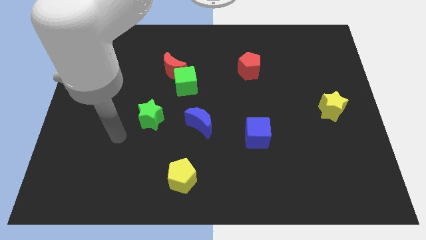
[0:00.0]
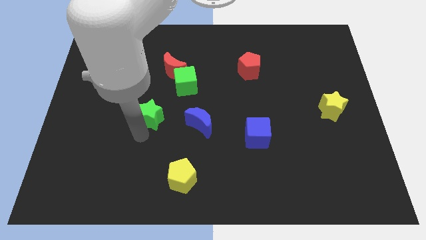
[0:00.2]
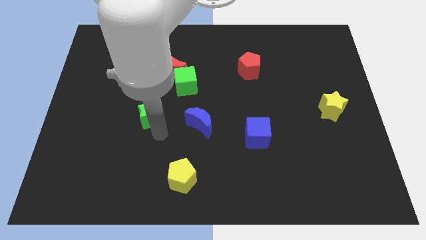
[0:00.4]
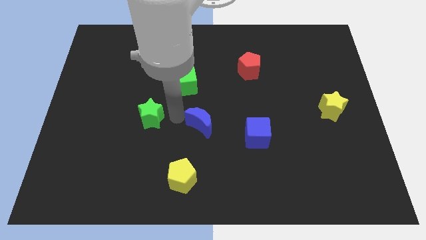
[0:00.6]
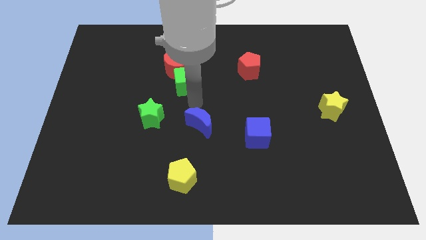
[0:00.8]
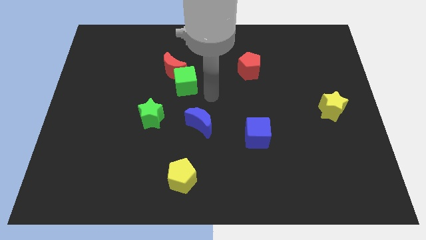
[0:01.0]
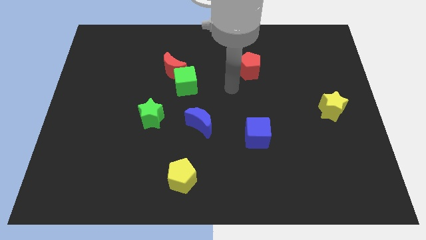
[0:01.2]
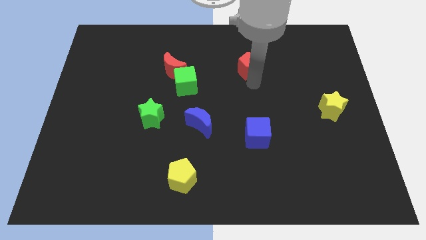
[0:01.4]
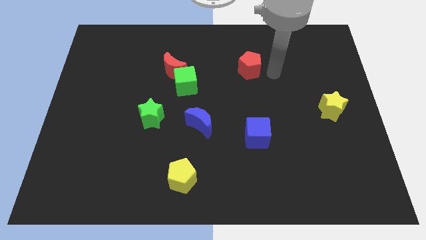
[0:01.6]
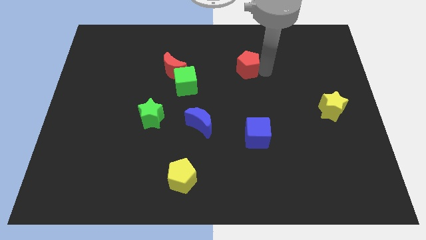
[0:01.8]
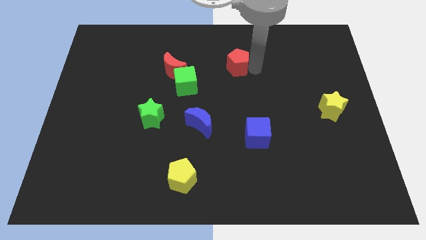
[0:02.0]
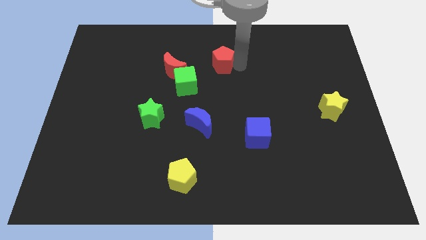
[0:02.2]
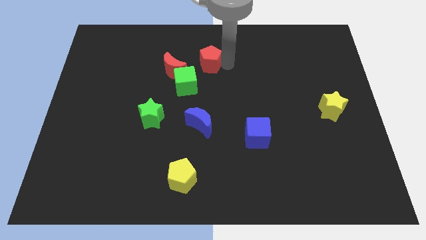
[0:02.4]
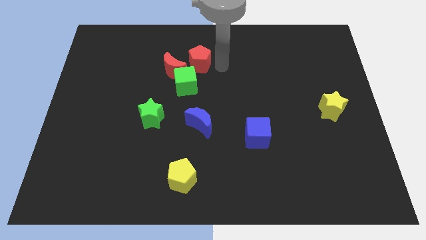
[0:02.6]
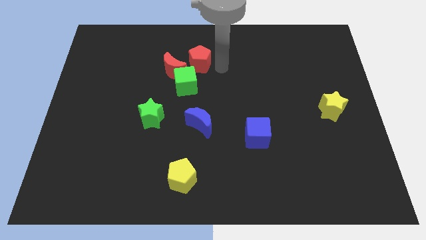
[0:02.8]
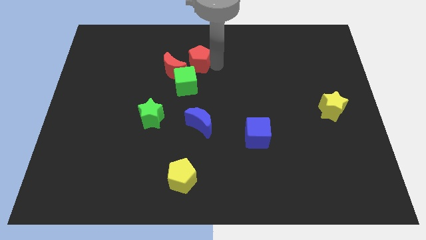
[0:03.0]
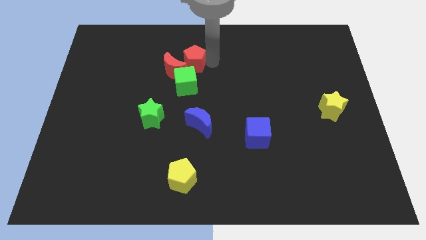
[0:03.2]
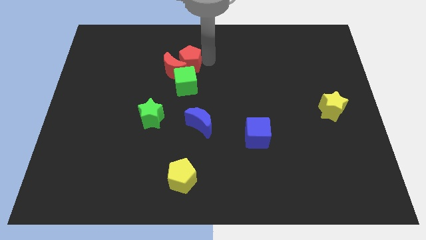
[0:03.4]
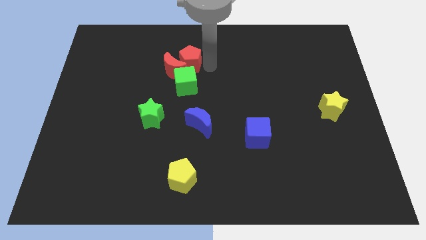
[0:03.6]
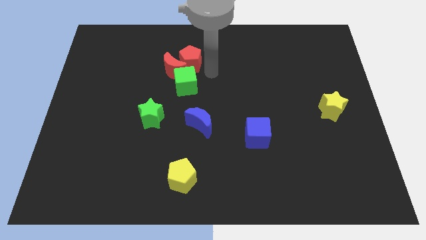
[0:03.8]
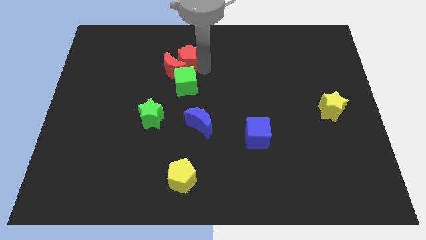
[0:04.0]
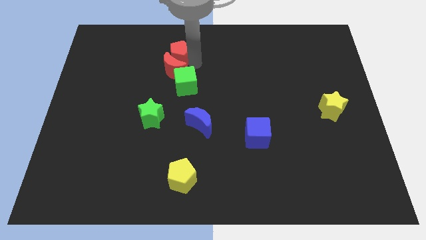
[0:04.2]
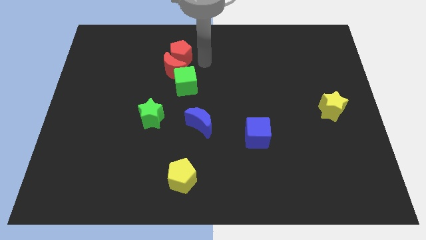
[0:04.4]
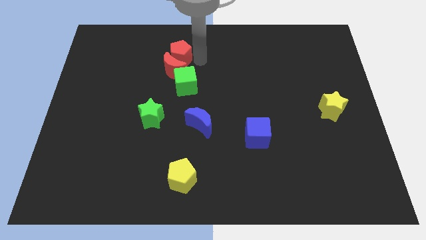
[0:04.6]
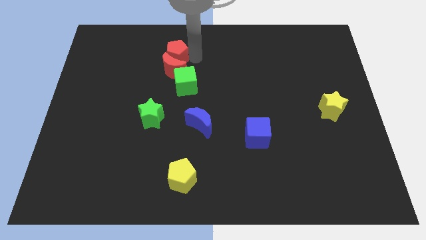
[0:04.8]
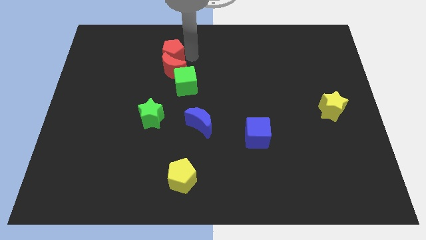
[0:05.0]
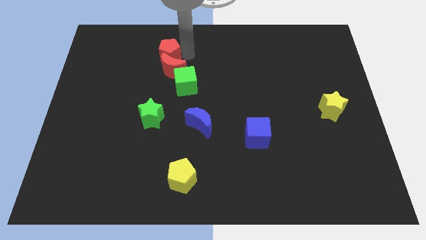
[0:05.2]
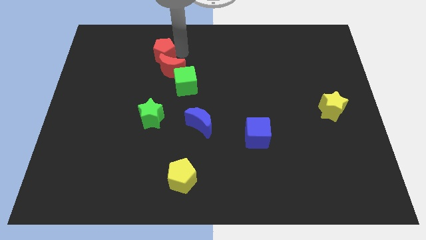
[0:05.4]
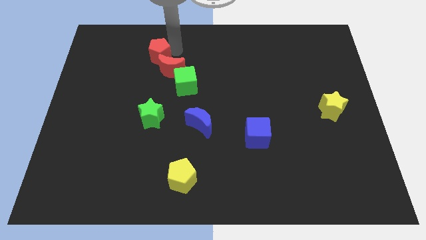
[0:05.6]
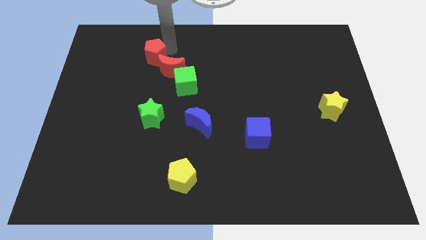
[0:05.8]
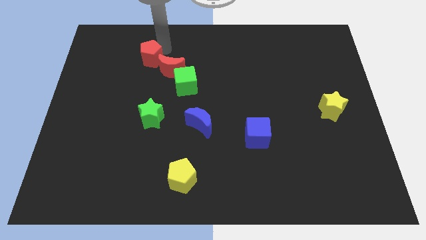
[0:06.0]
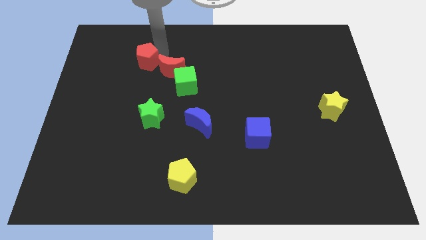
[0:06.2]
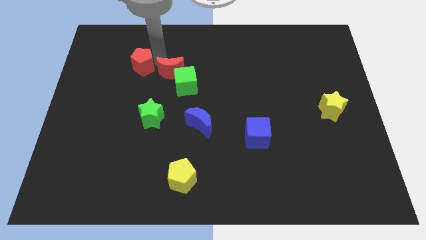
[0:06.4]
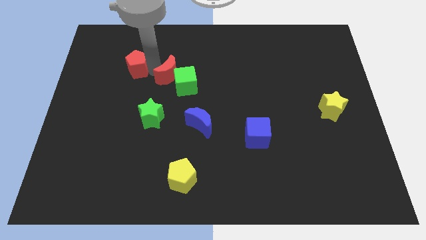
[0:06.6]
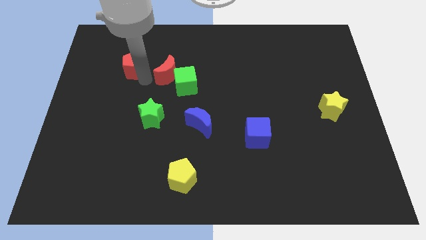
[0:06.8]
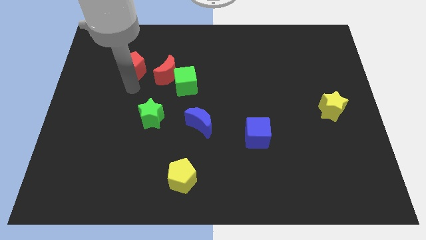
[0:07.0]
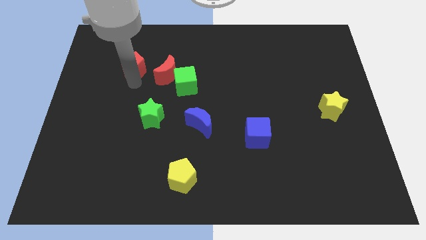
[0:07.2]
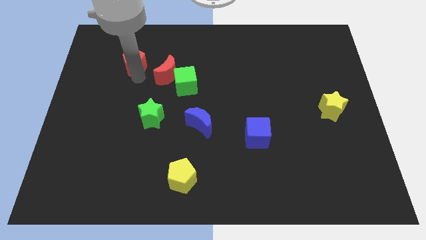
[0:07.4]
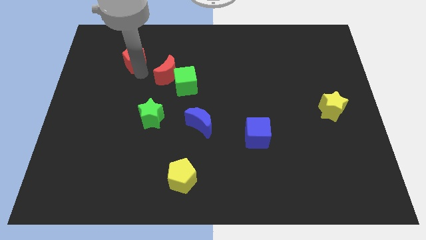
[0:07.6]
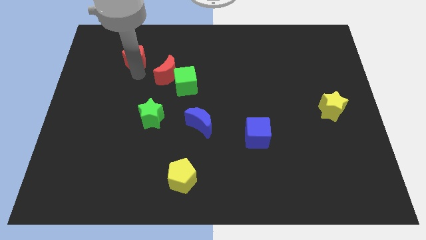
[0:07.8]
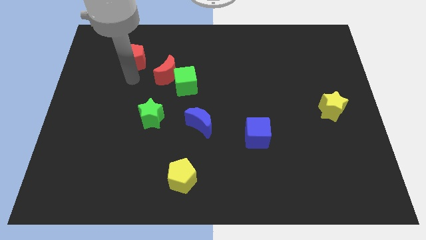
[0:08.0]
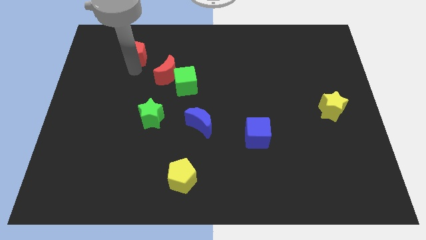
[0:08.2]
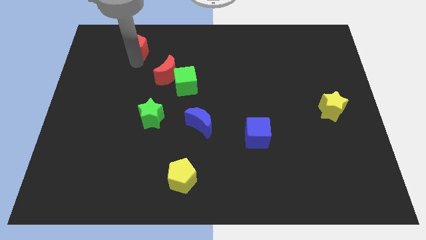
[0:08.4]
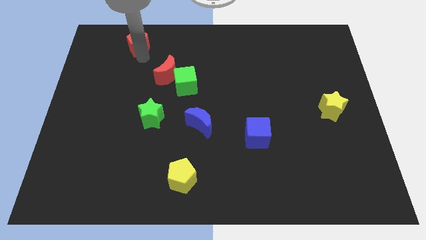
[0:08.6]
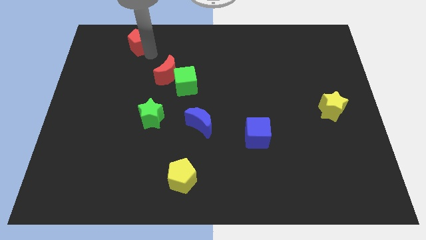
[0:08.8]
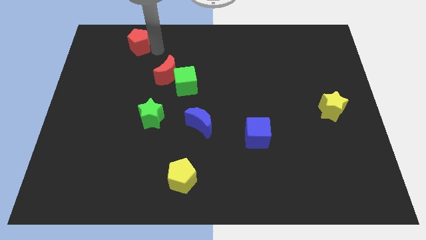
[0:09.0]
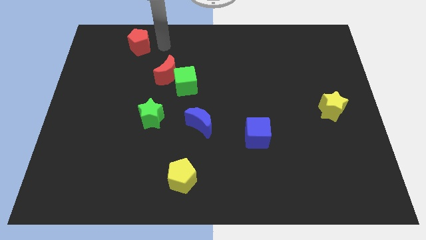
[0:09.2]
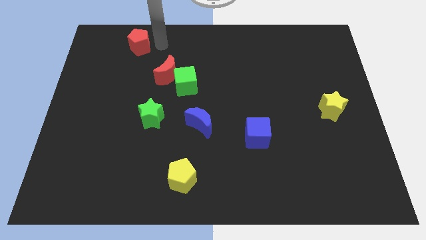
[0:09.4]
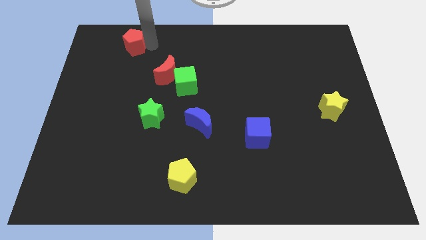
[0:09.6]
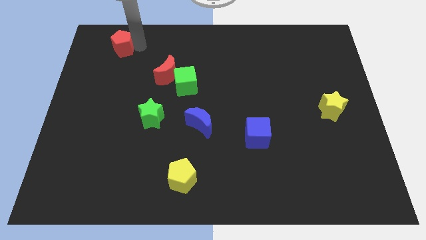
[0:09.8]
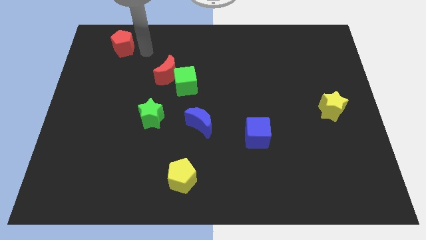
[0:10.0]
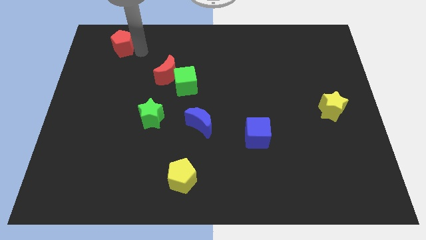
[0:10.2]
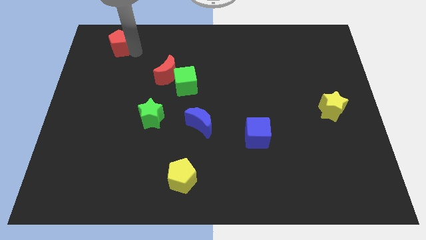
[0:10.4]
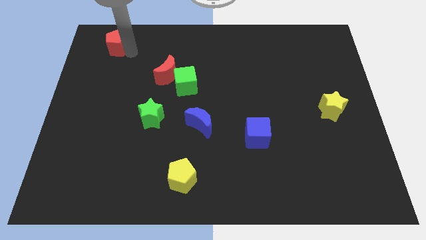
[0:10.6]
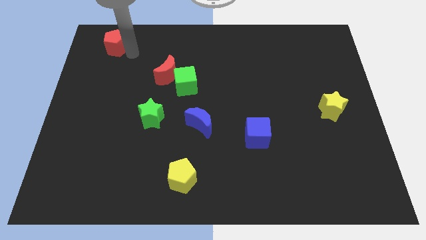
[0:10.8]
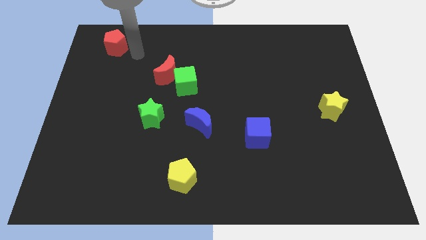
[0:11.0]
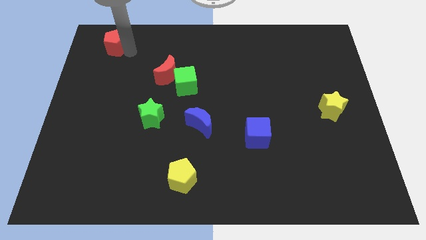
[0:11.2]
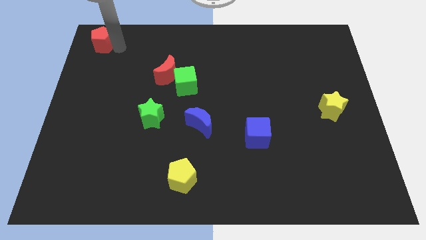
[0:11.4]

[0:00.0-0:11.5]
slide the red pentagon to the upper left corner

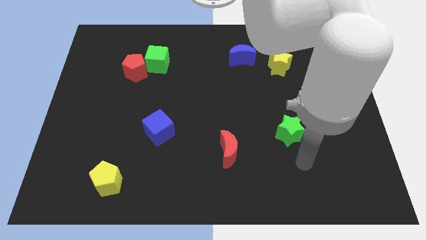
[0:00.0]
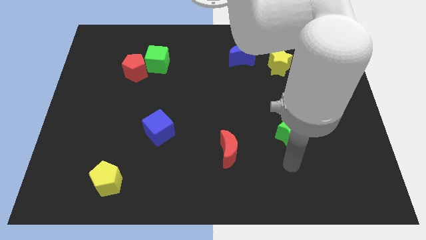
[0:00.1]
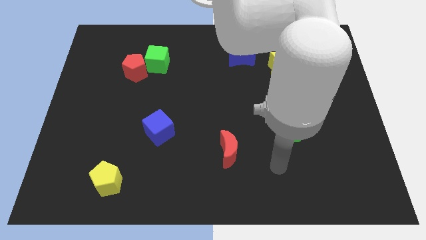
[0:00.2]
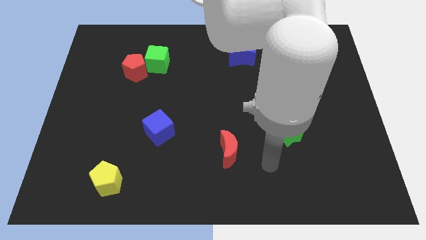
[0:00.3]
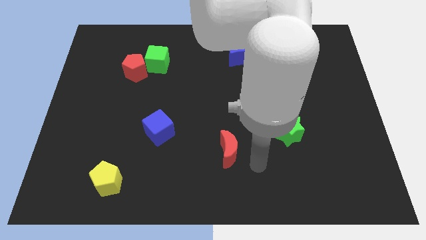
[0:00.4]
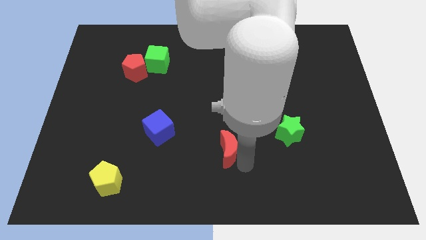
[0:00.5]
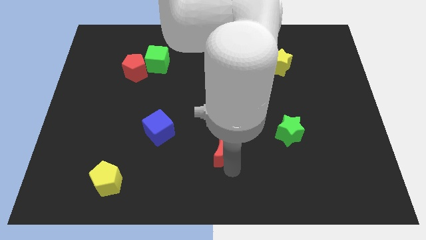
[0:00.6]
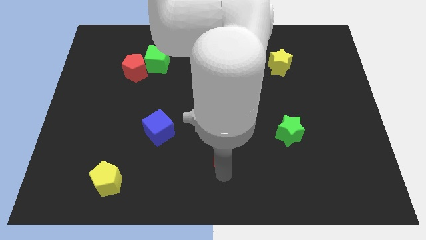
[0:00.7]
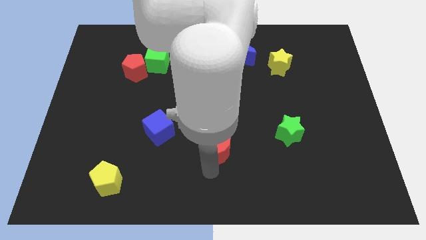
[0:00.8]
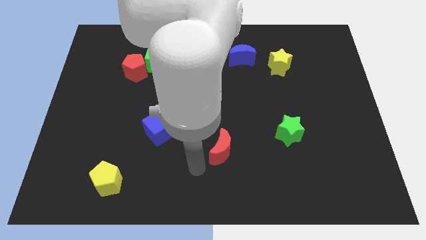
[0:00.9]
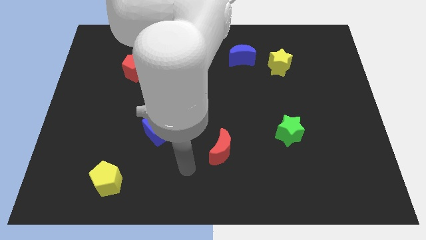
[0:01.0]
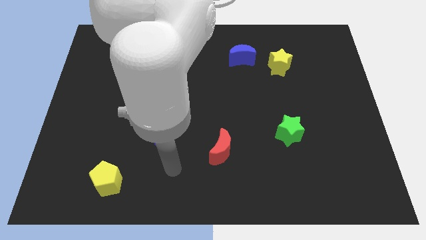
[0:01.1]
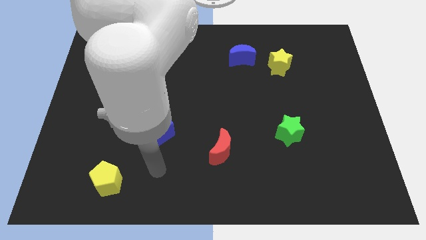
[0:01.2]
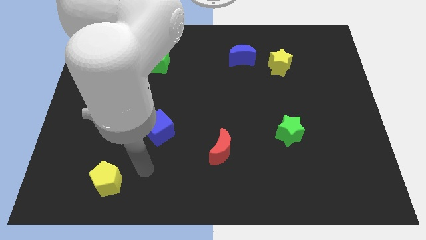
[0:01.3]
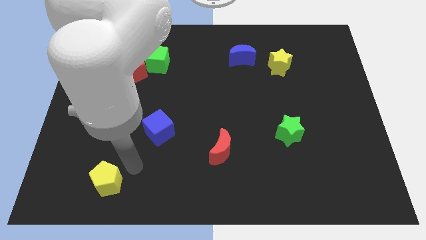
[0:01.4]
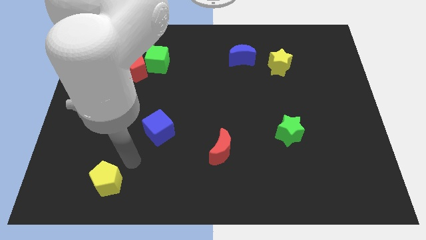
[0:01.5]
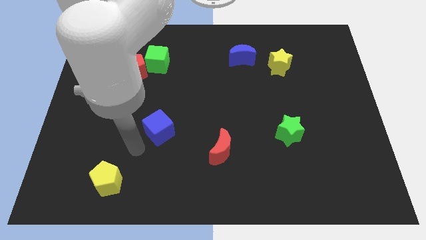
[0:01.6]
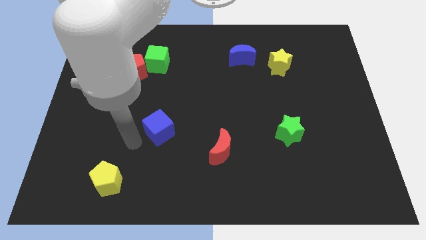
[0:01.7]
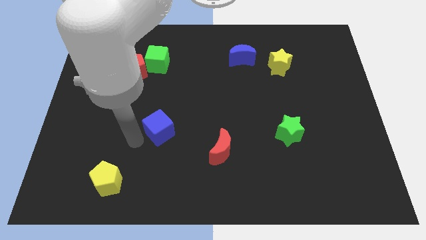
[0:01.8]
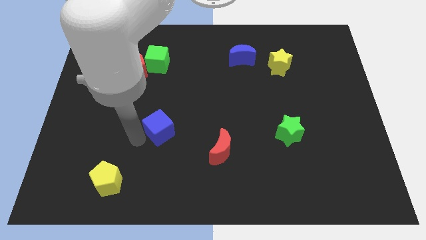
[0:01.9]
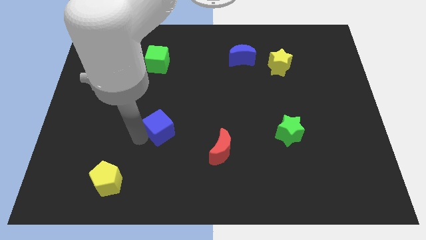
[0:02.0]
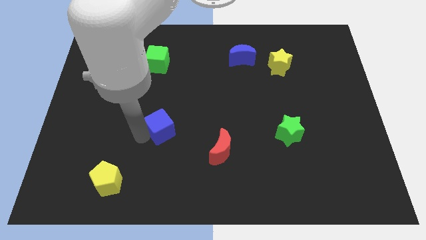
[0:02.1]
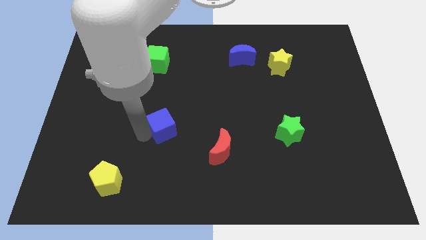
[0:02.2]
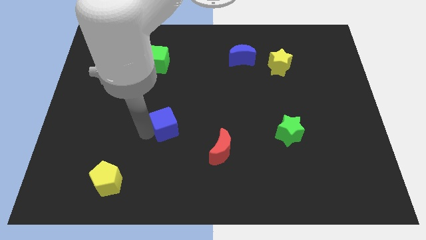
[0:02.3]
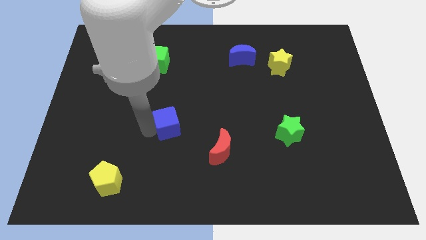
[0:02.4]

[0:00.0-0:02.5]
slide the blue cube to the center
